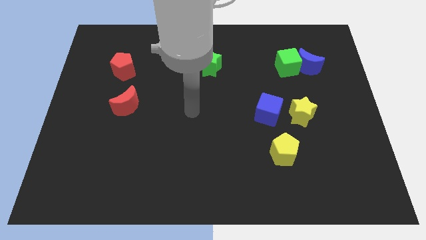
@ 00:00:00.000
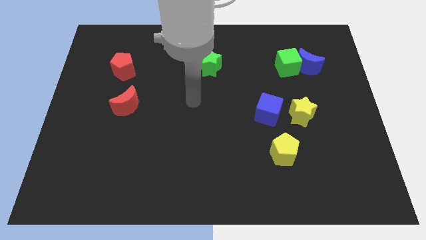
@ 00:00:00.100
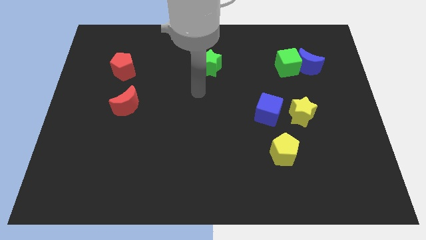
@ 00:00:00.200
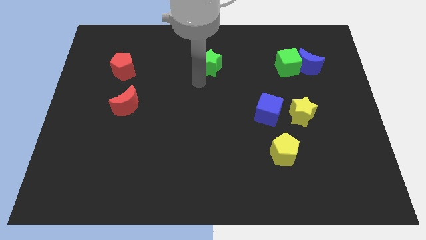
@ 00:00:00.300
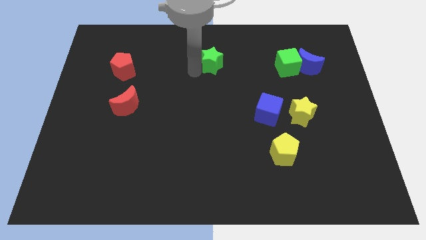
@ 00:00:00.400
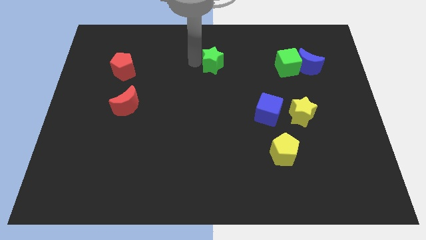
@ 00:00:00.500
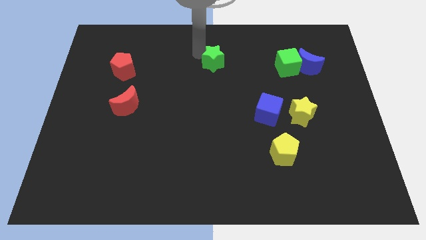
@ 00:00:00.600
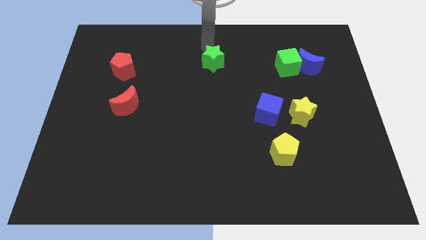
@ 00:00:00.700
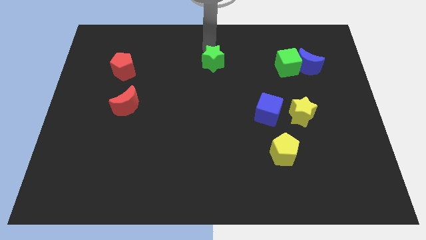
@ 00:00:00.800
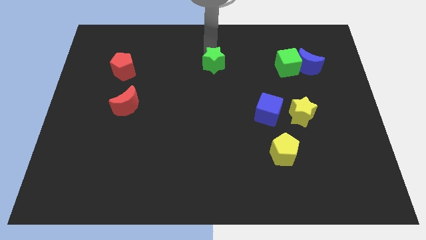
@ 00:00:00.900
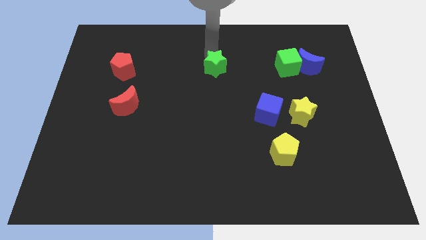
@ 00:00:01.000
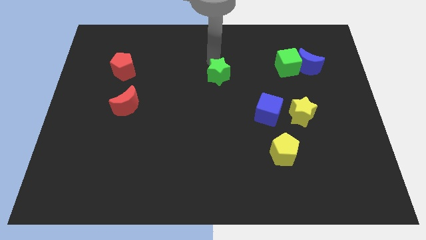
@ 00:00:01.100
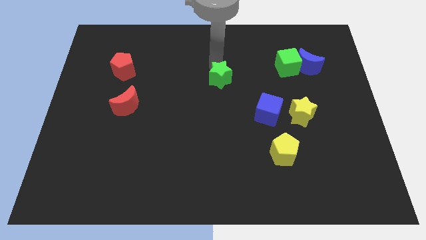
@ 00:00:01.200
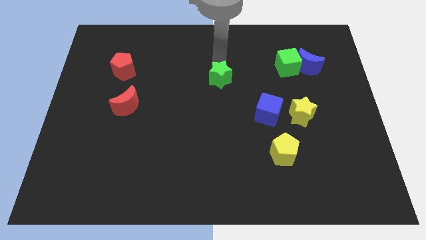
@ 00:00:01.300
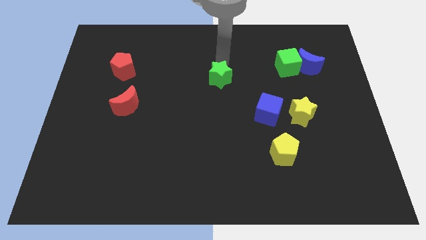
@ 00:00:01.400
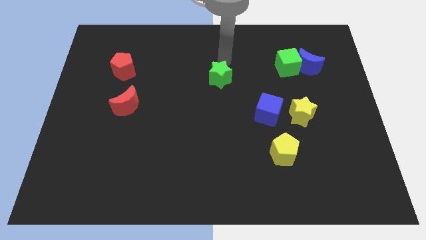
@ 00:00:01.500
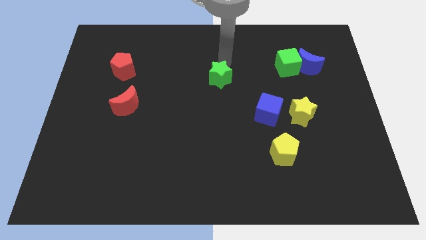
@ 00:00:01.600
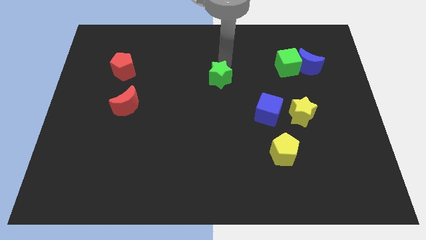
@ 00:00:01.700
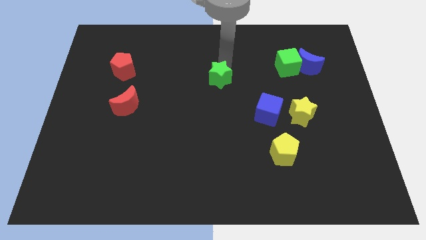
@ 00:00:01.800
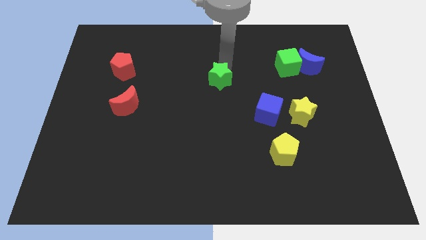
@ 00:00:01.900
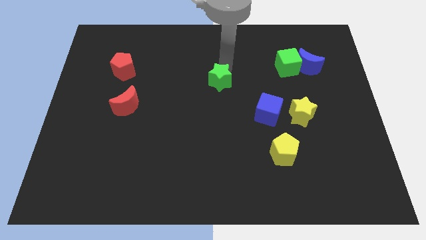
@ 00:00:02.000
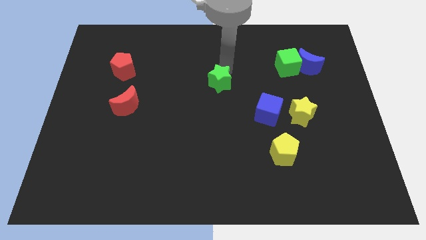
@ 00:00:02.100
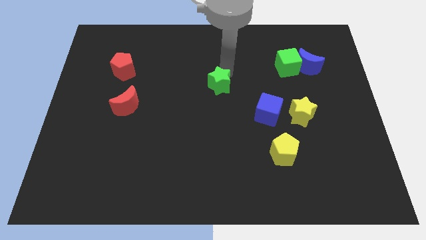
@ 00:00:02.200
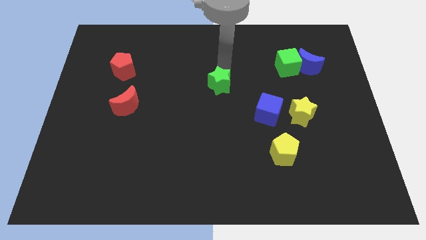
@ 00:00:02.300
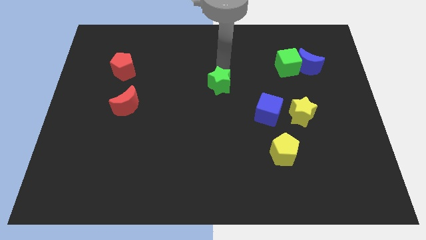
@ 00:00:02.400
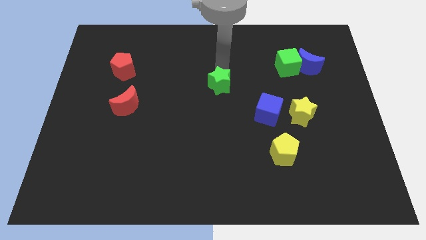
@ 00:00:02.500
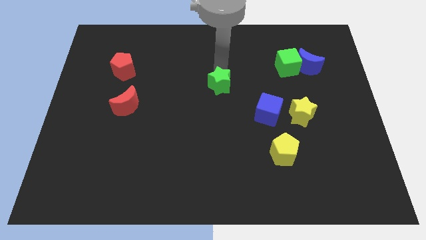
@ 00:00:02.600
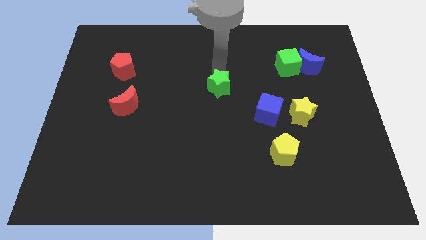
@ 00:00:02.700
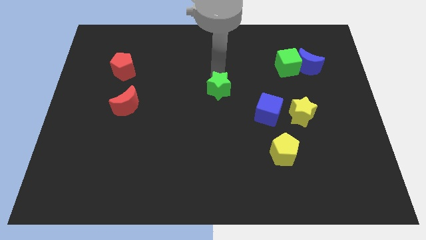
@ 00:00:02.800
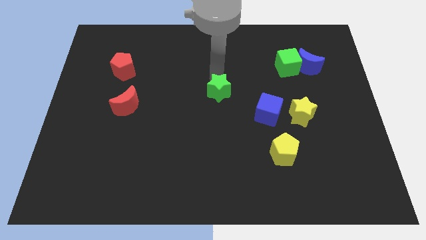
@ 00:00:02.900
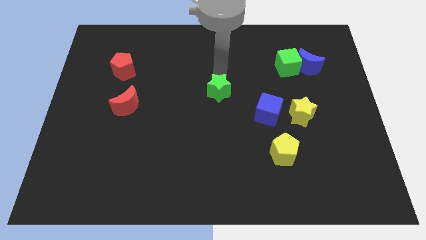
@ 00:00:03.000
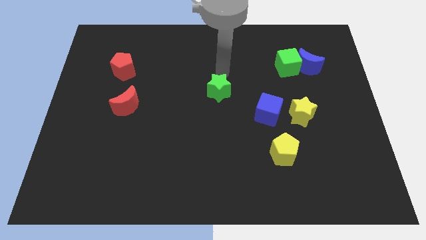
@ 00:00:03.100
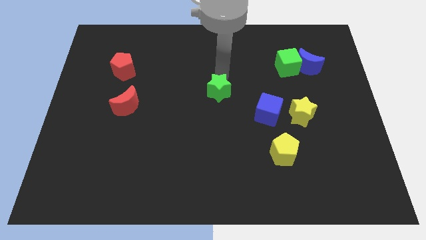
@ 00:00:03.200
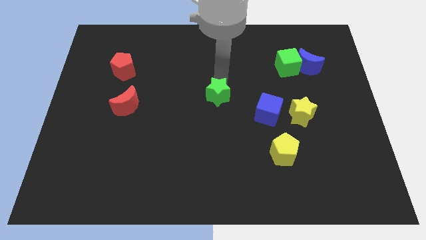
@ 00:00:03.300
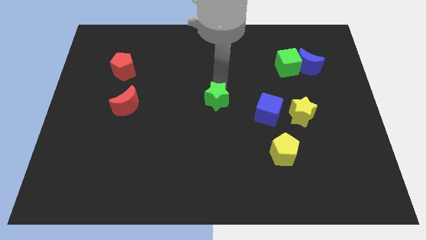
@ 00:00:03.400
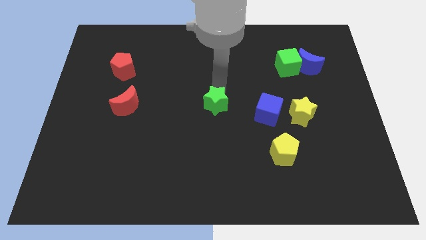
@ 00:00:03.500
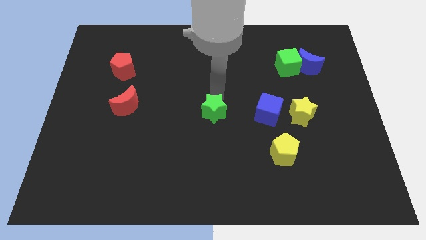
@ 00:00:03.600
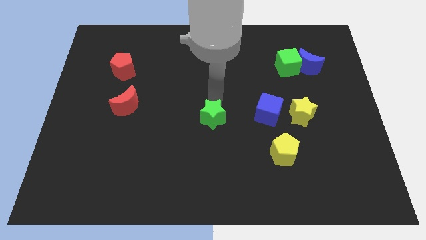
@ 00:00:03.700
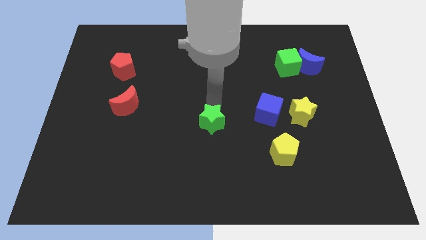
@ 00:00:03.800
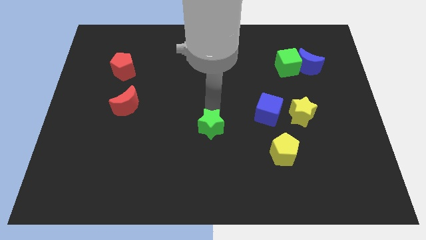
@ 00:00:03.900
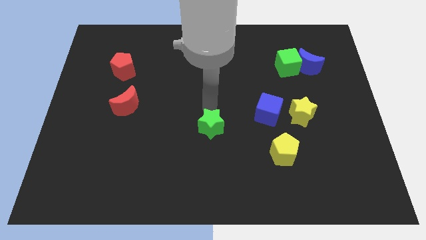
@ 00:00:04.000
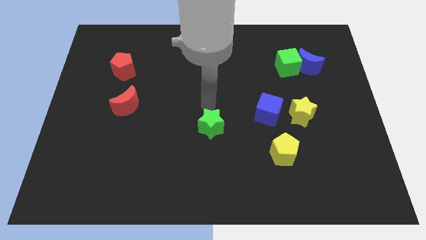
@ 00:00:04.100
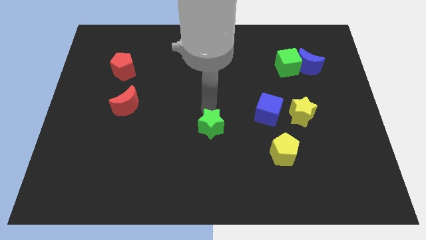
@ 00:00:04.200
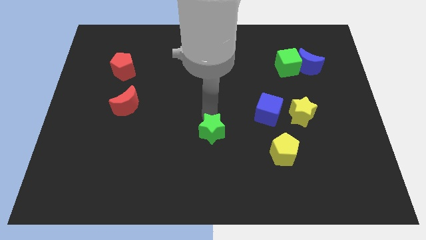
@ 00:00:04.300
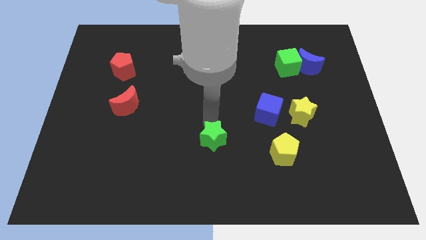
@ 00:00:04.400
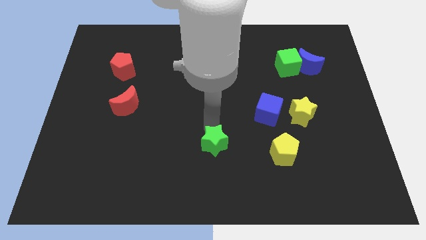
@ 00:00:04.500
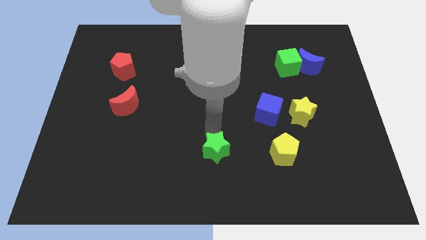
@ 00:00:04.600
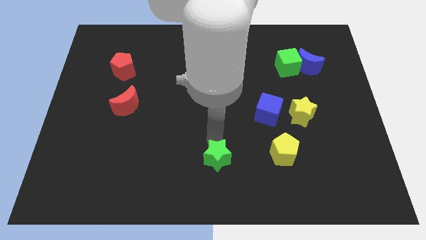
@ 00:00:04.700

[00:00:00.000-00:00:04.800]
put the green star to the bottom side

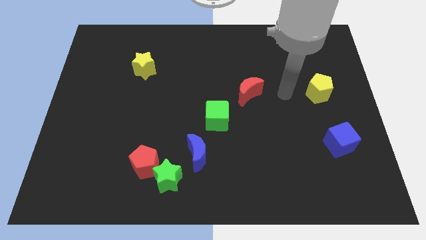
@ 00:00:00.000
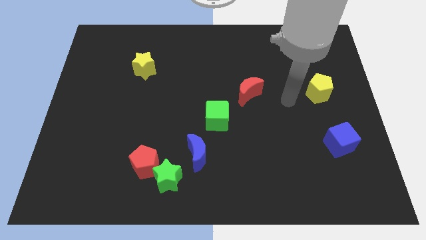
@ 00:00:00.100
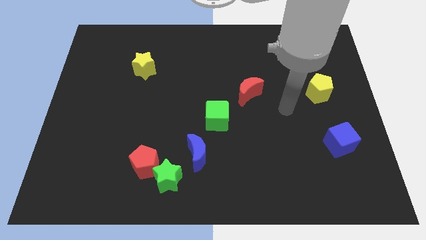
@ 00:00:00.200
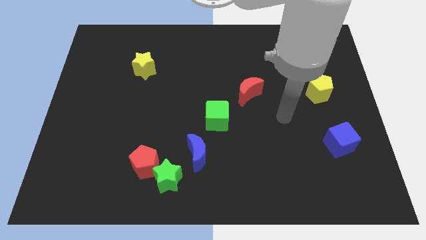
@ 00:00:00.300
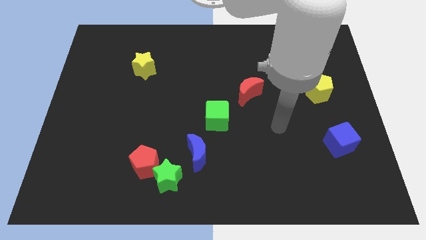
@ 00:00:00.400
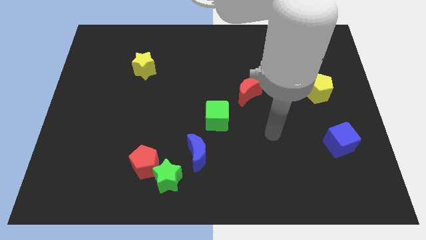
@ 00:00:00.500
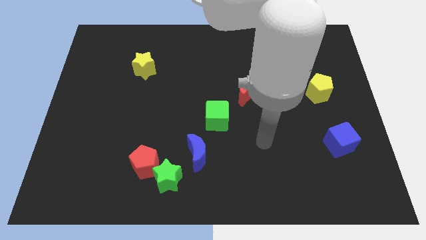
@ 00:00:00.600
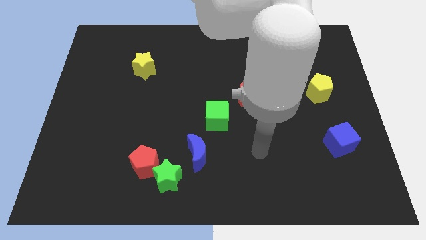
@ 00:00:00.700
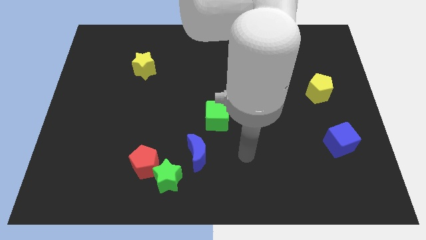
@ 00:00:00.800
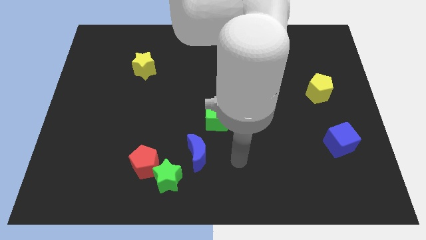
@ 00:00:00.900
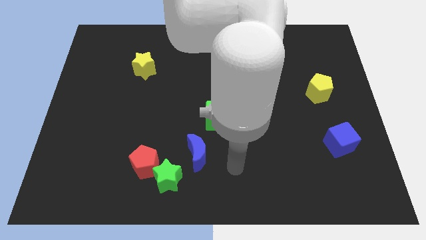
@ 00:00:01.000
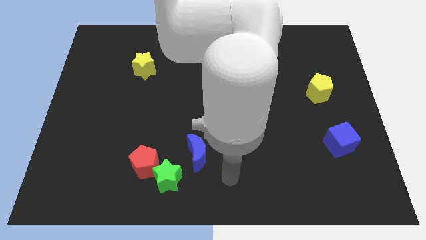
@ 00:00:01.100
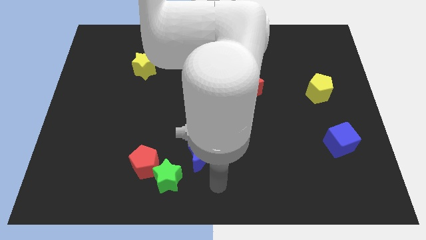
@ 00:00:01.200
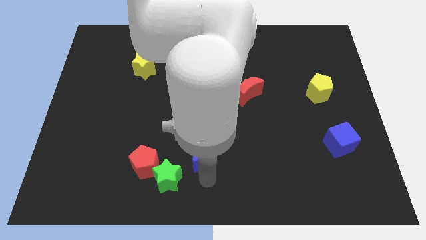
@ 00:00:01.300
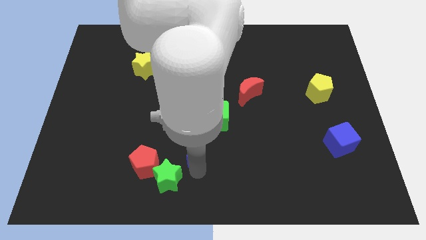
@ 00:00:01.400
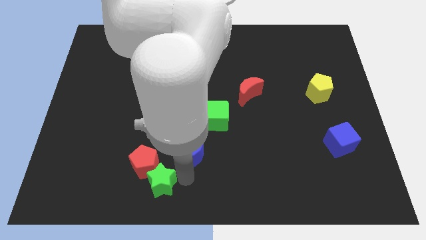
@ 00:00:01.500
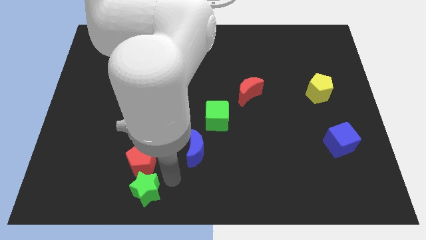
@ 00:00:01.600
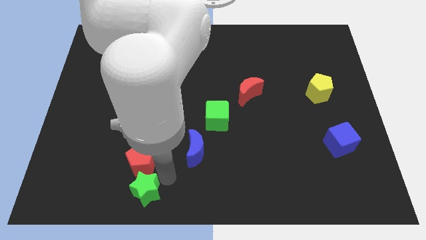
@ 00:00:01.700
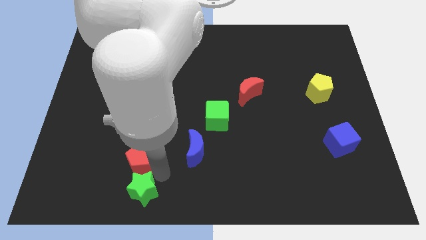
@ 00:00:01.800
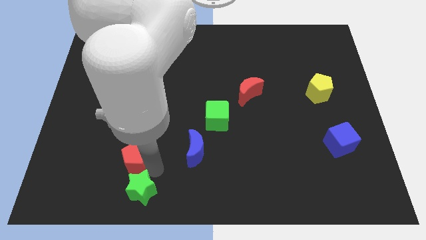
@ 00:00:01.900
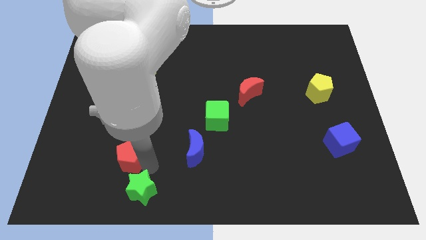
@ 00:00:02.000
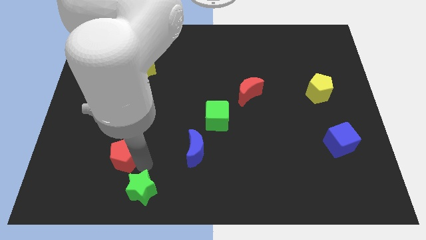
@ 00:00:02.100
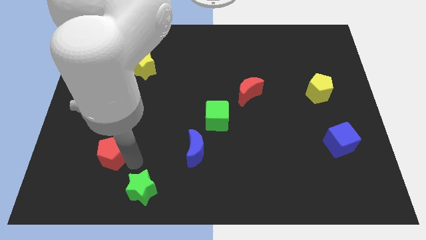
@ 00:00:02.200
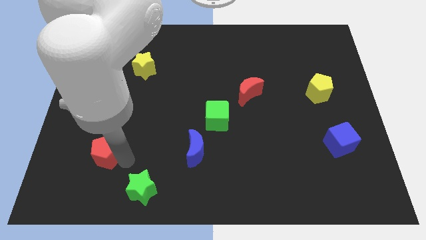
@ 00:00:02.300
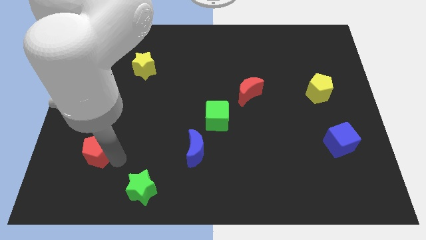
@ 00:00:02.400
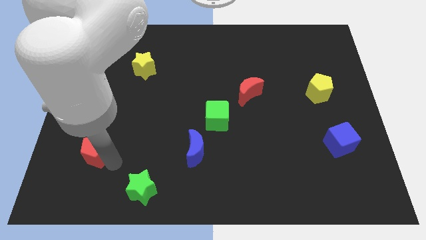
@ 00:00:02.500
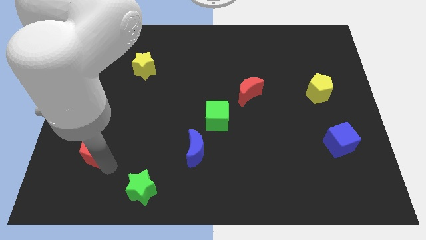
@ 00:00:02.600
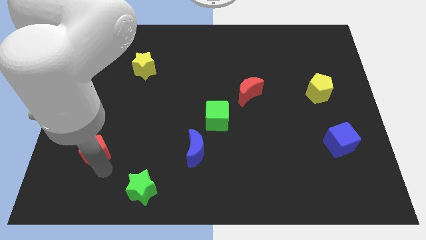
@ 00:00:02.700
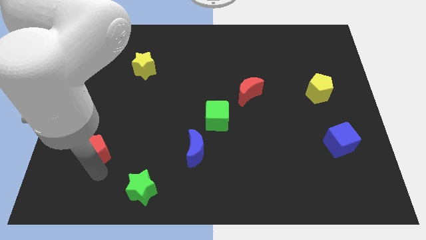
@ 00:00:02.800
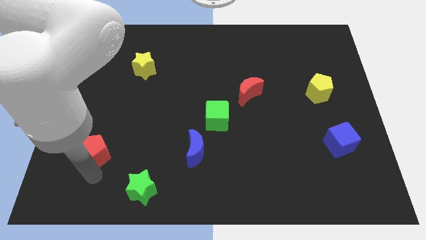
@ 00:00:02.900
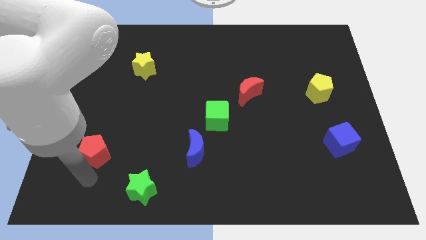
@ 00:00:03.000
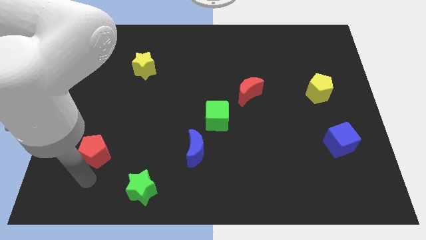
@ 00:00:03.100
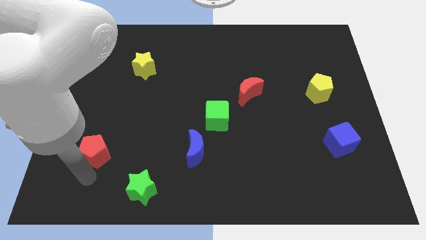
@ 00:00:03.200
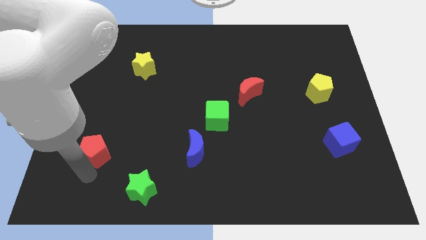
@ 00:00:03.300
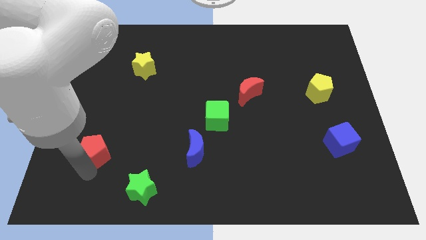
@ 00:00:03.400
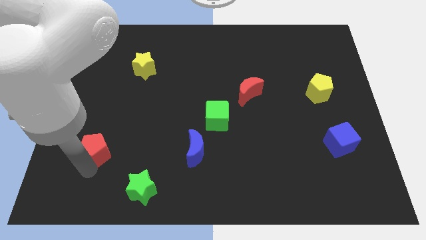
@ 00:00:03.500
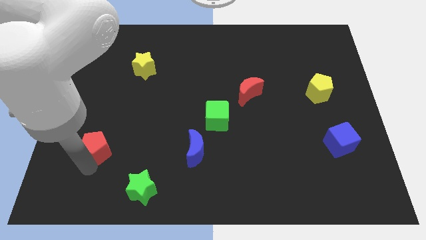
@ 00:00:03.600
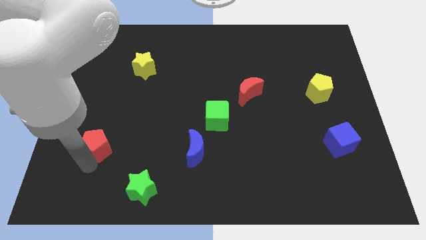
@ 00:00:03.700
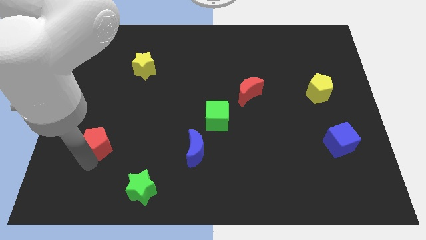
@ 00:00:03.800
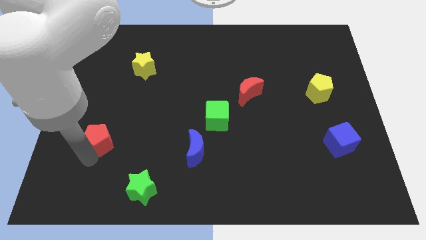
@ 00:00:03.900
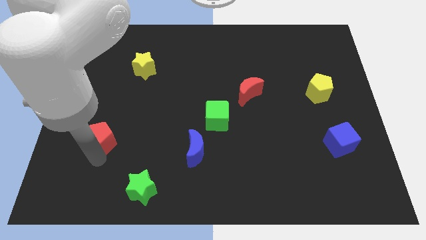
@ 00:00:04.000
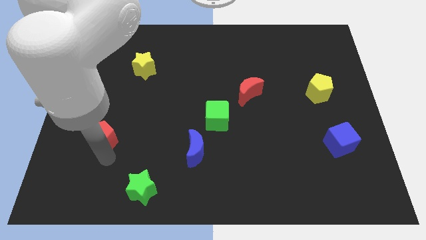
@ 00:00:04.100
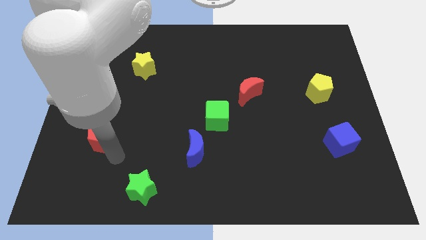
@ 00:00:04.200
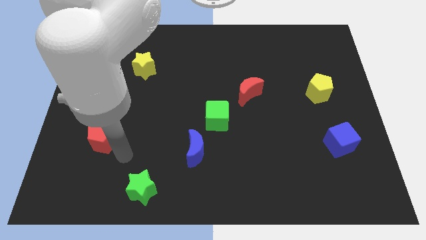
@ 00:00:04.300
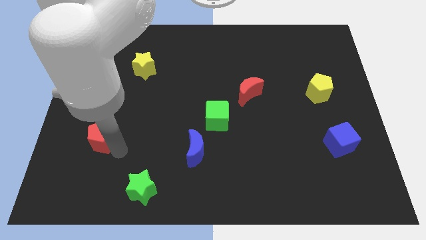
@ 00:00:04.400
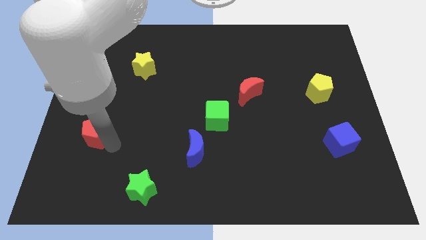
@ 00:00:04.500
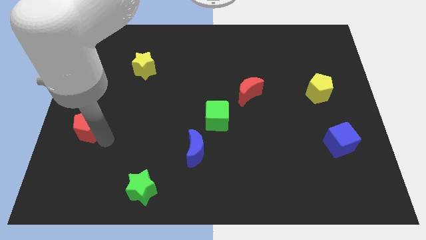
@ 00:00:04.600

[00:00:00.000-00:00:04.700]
put the red pentagon to the center left
